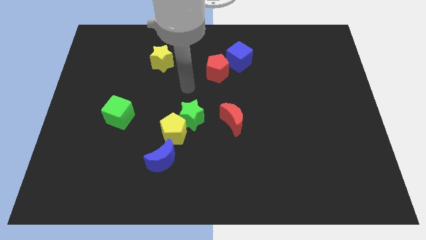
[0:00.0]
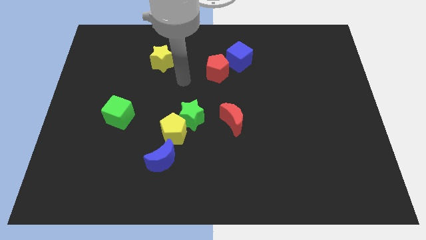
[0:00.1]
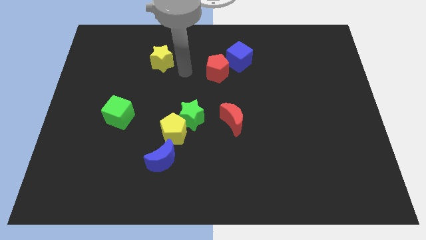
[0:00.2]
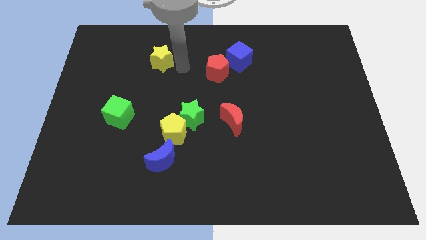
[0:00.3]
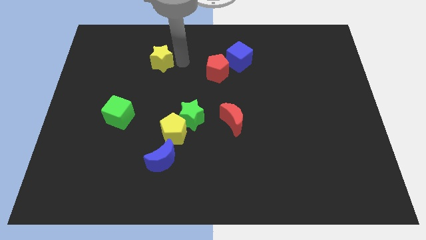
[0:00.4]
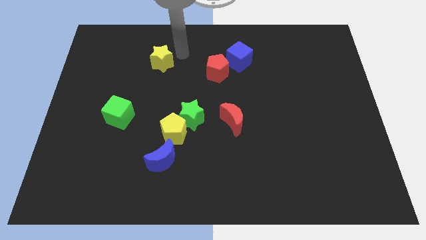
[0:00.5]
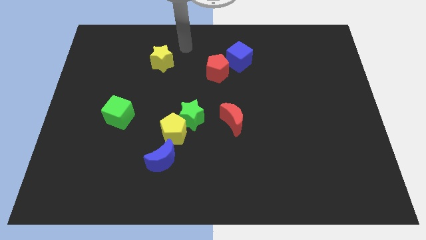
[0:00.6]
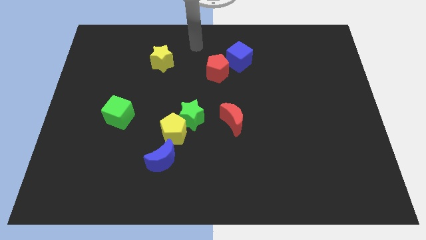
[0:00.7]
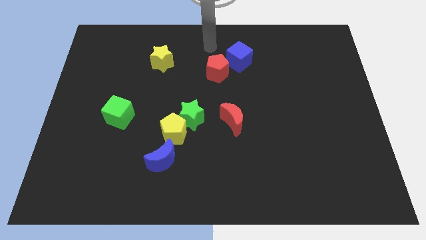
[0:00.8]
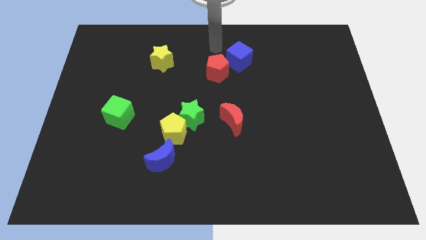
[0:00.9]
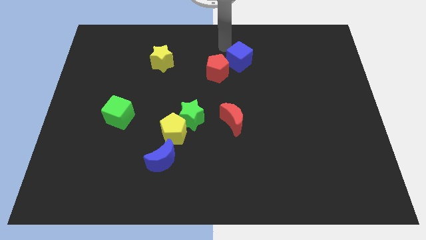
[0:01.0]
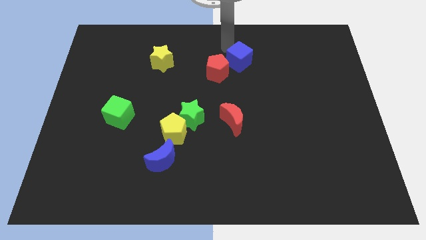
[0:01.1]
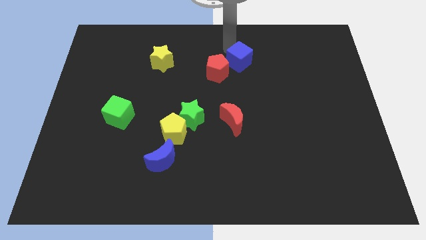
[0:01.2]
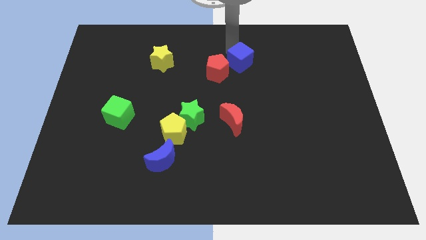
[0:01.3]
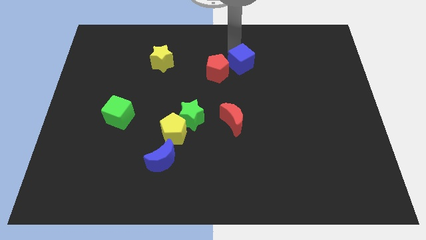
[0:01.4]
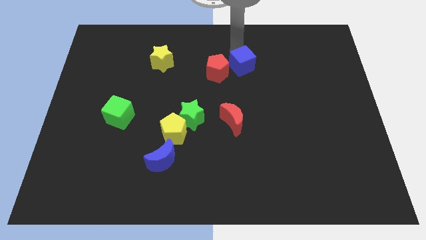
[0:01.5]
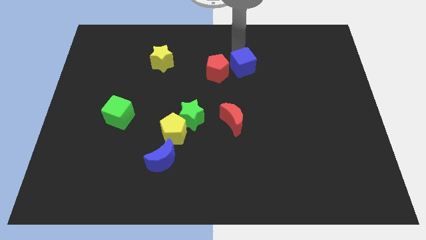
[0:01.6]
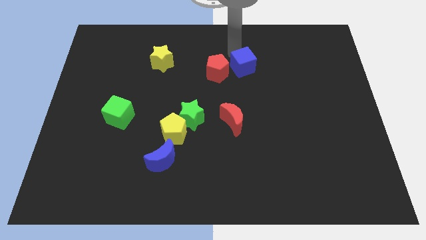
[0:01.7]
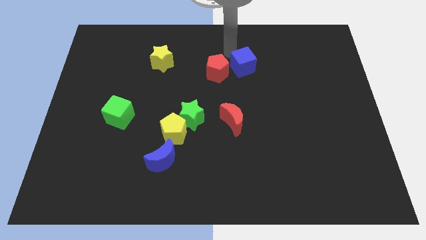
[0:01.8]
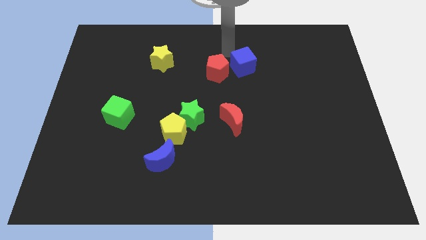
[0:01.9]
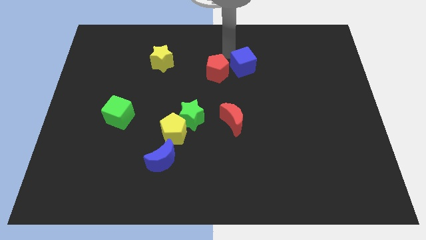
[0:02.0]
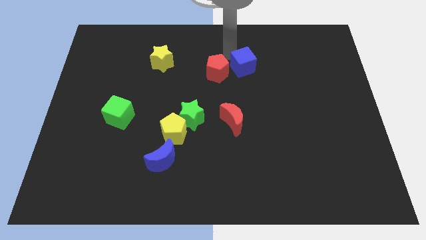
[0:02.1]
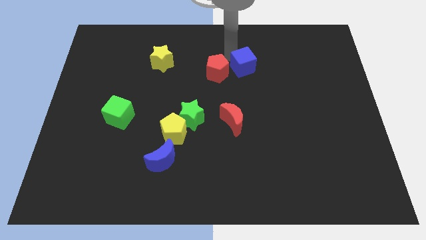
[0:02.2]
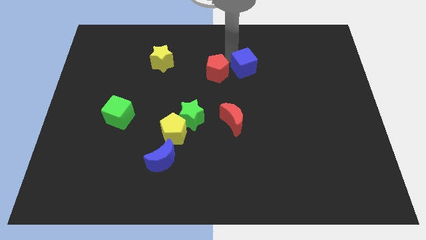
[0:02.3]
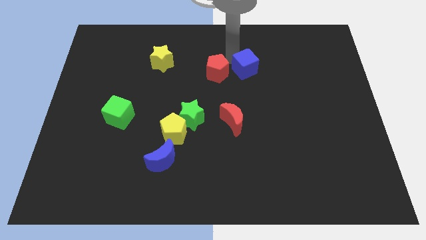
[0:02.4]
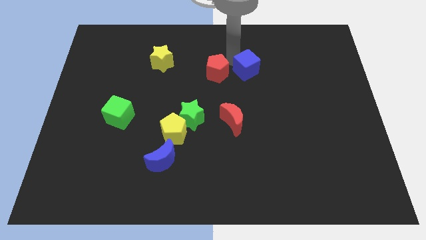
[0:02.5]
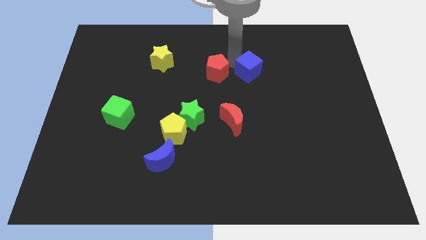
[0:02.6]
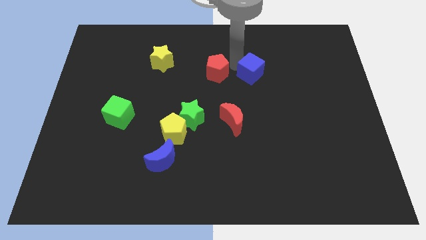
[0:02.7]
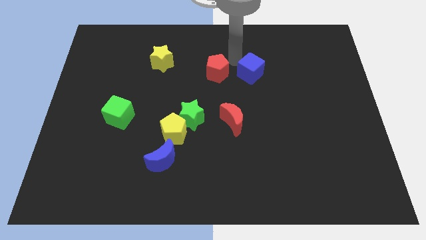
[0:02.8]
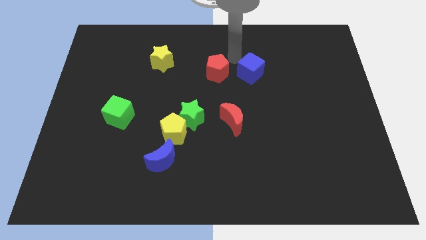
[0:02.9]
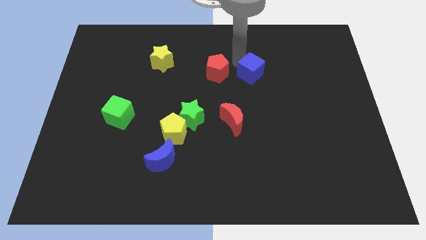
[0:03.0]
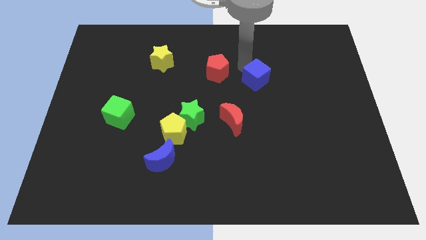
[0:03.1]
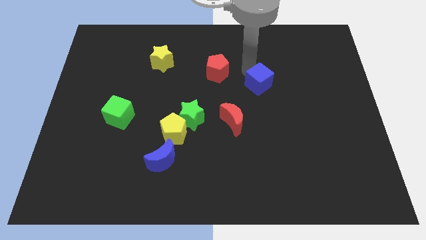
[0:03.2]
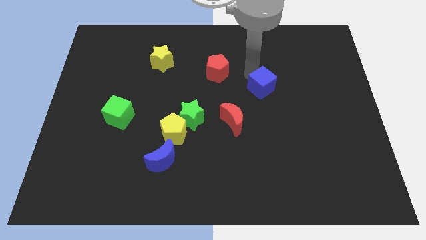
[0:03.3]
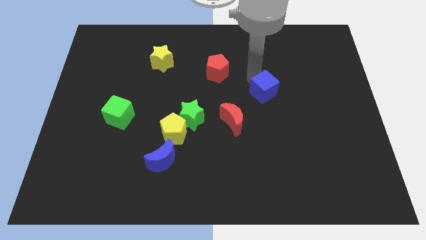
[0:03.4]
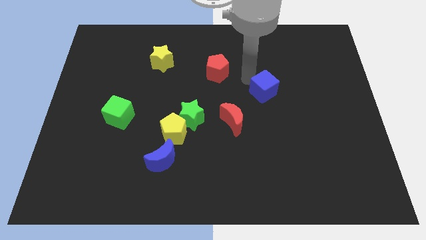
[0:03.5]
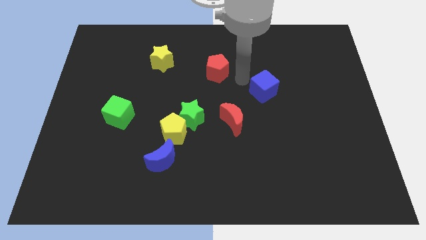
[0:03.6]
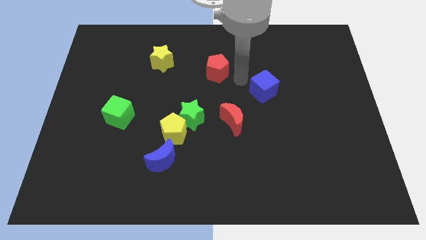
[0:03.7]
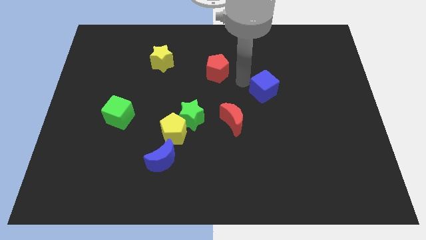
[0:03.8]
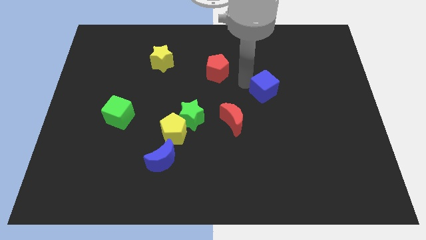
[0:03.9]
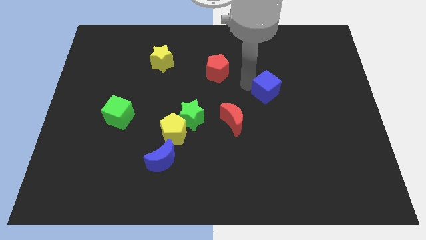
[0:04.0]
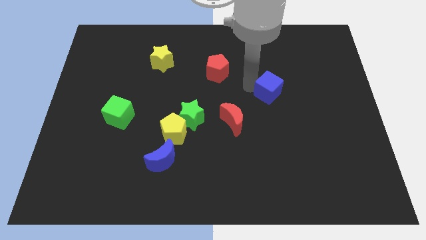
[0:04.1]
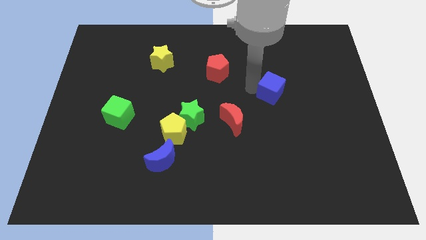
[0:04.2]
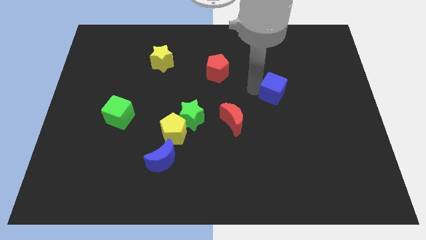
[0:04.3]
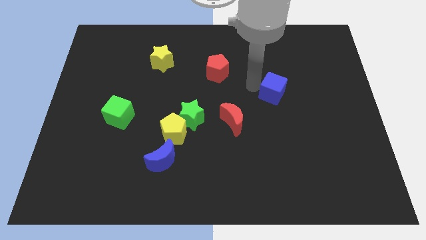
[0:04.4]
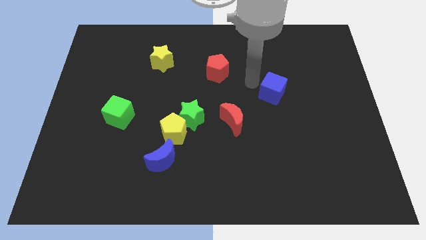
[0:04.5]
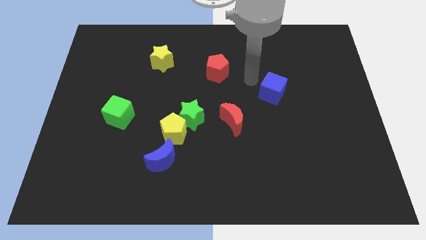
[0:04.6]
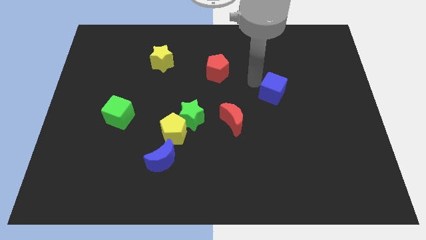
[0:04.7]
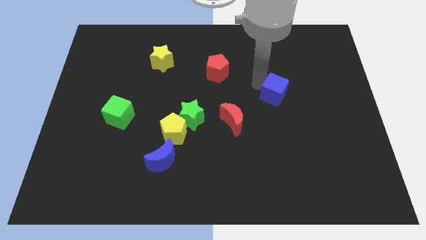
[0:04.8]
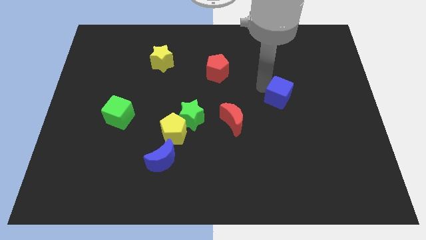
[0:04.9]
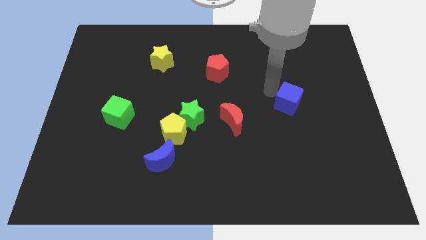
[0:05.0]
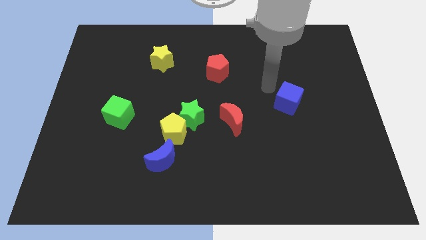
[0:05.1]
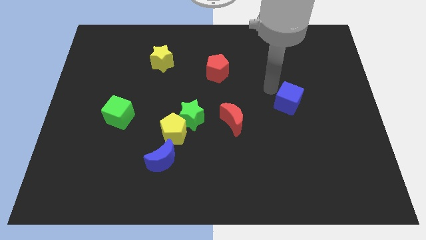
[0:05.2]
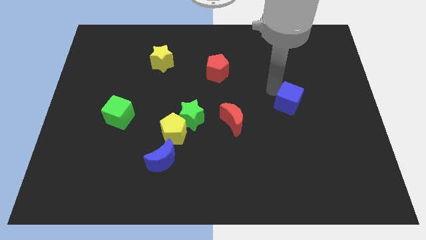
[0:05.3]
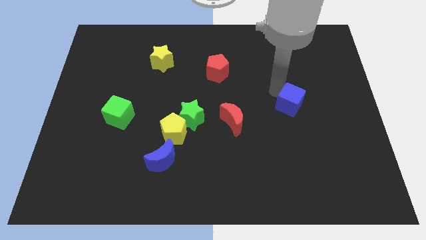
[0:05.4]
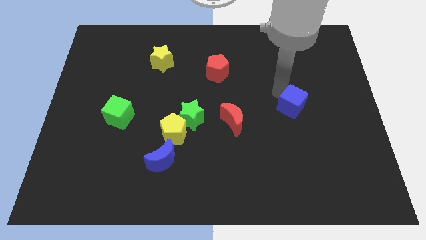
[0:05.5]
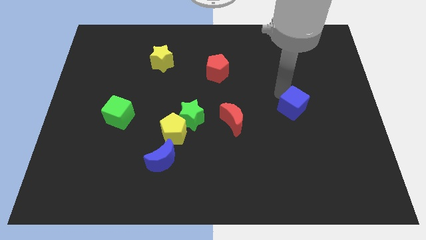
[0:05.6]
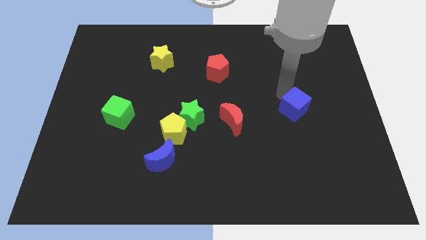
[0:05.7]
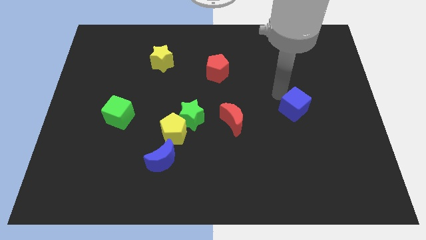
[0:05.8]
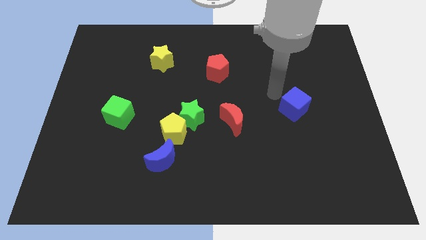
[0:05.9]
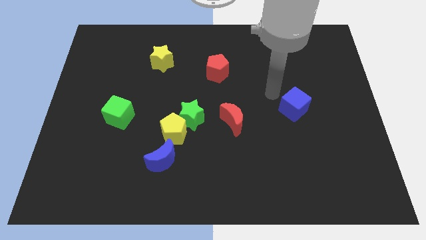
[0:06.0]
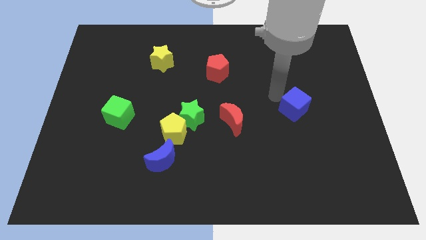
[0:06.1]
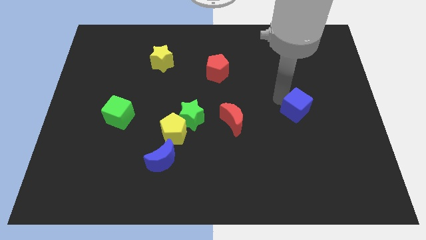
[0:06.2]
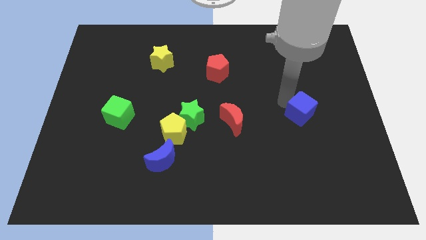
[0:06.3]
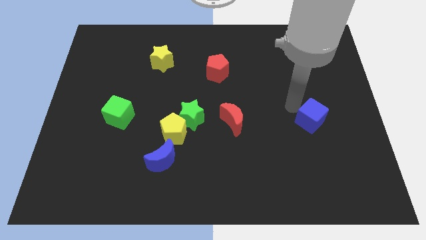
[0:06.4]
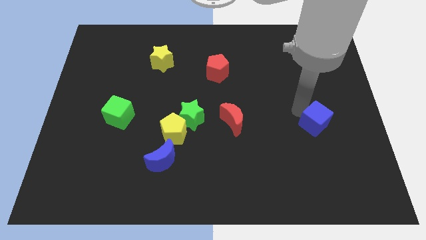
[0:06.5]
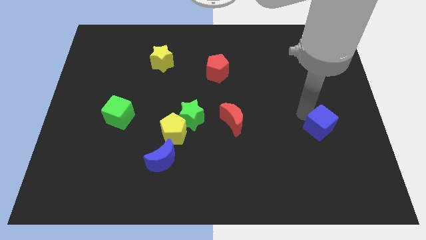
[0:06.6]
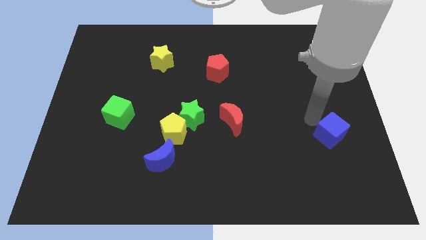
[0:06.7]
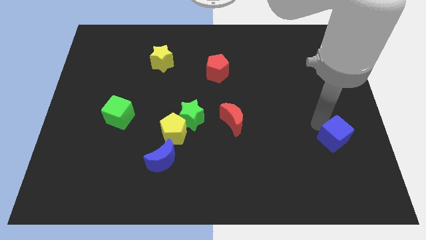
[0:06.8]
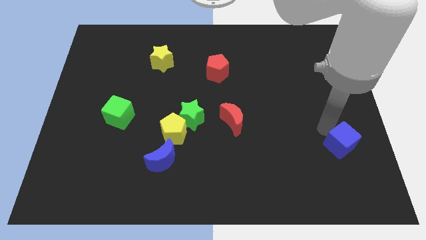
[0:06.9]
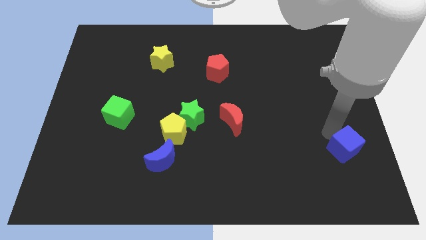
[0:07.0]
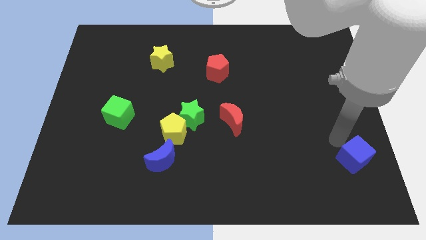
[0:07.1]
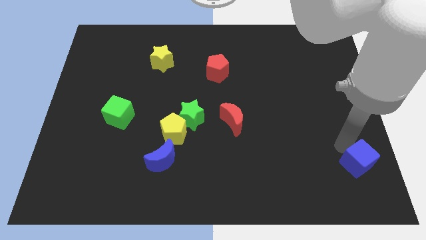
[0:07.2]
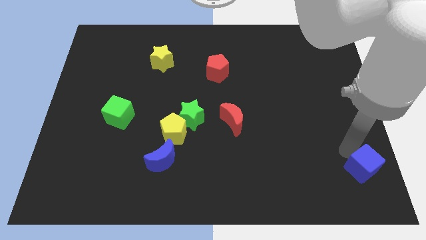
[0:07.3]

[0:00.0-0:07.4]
slide the blue cube to the lower right corner
